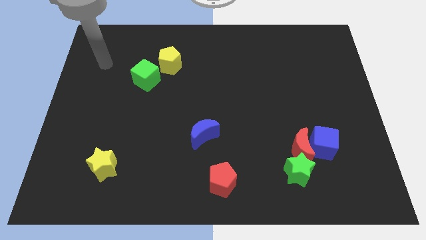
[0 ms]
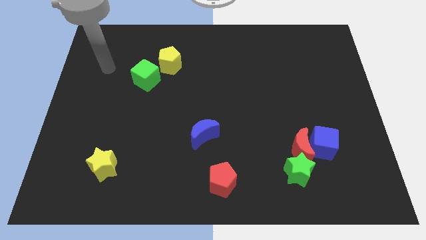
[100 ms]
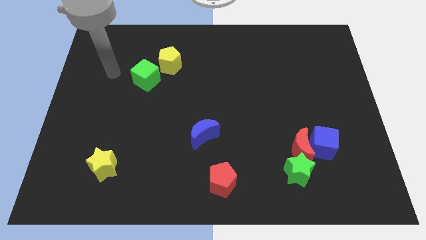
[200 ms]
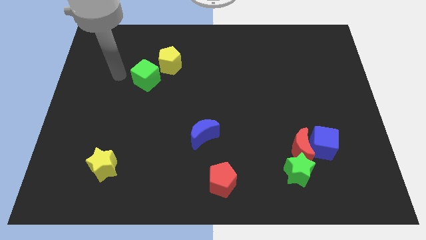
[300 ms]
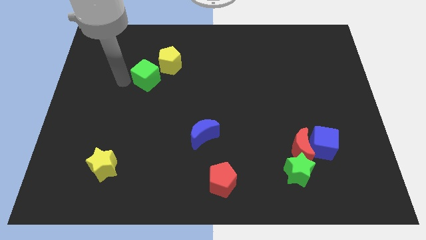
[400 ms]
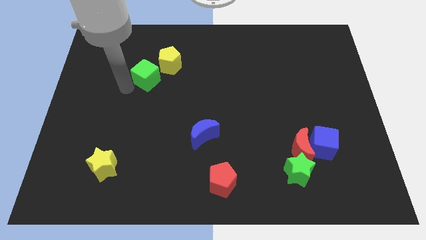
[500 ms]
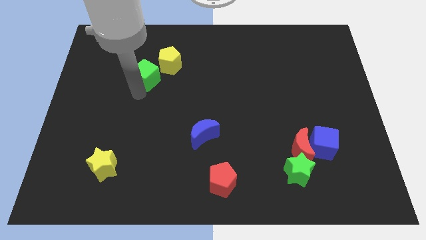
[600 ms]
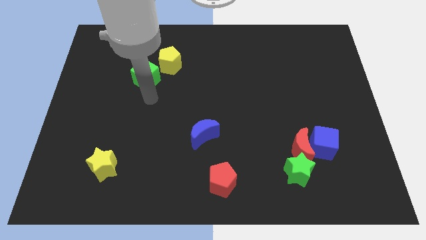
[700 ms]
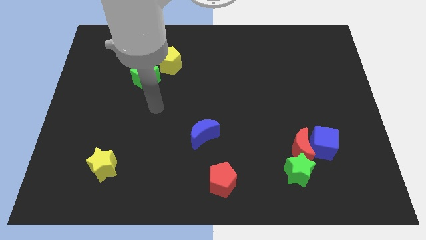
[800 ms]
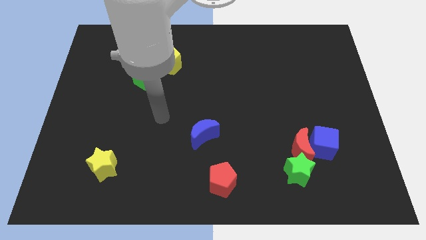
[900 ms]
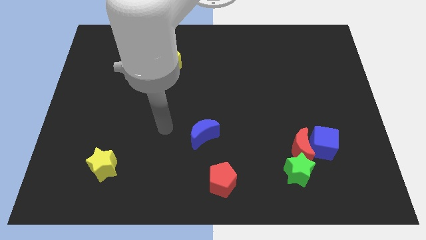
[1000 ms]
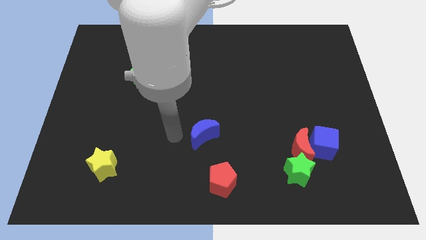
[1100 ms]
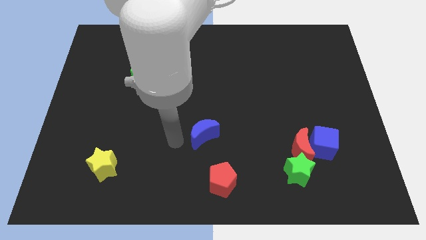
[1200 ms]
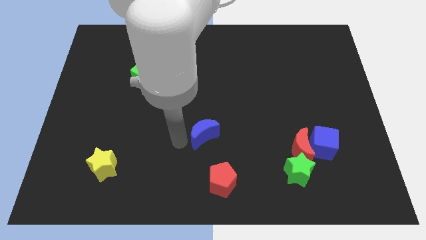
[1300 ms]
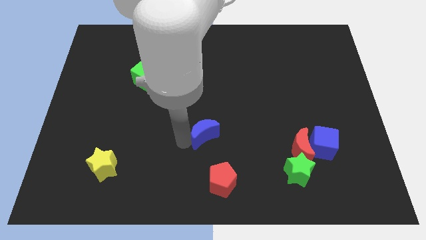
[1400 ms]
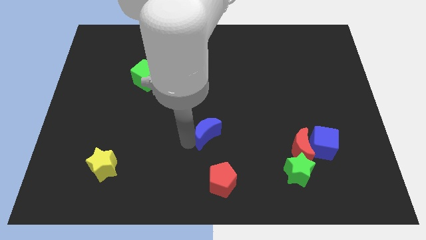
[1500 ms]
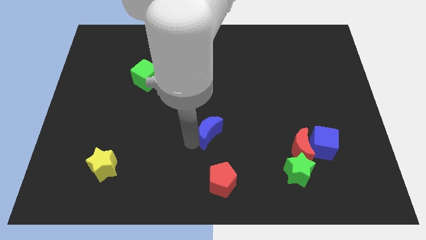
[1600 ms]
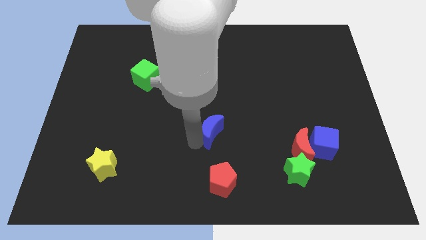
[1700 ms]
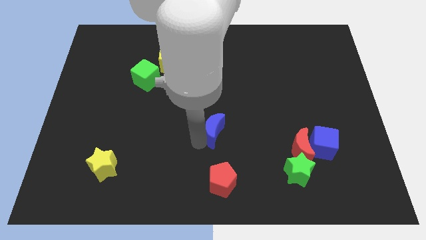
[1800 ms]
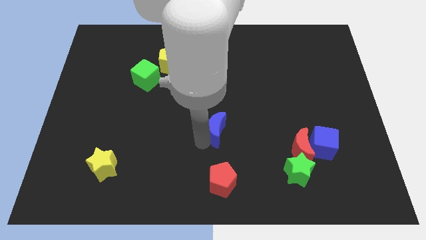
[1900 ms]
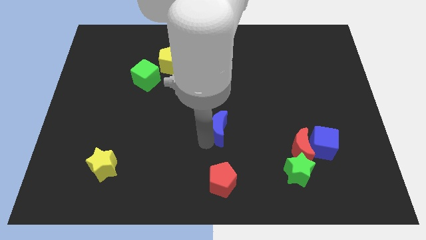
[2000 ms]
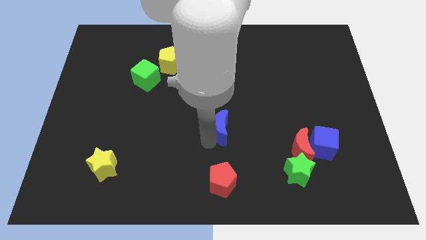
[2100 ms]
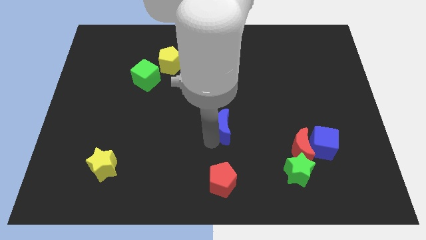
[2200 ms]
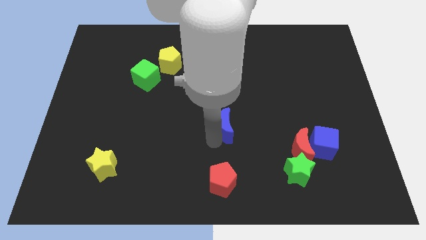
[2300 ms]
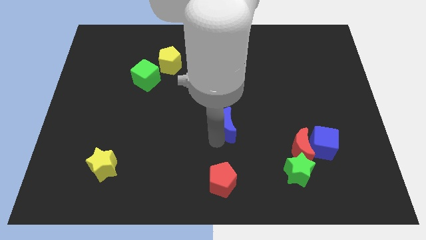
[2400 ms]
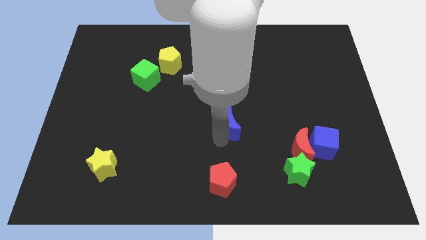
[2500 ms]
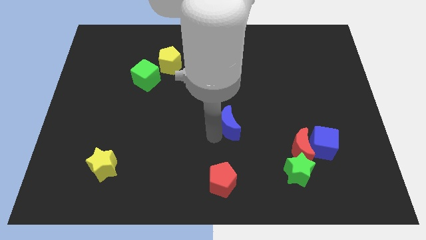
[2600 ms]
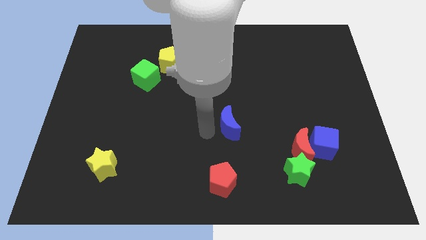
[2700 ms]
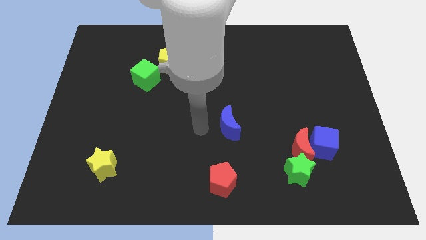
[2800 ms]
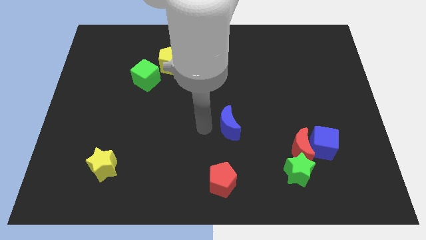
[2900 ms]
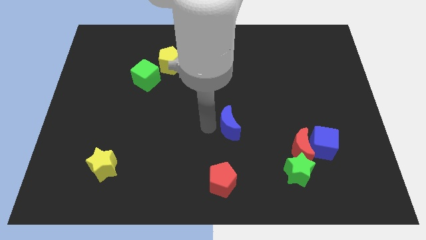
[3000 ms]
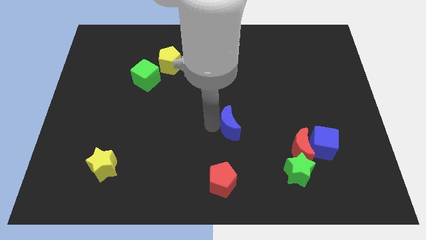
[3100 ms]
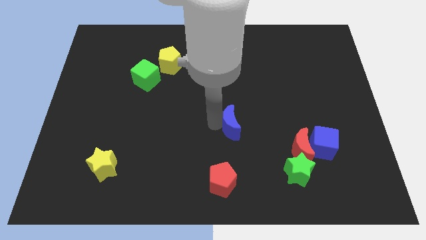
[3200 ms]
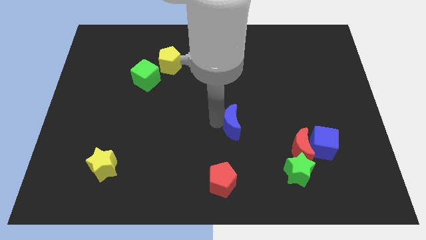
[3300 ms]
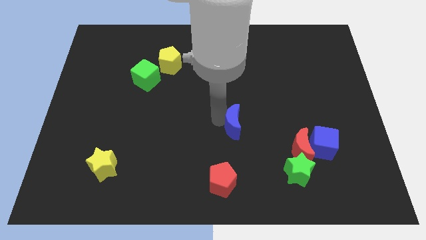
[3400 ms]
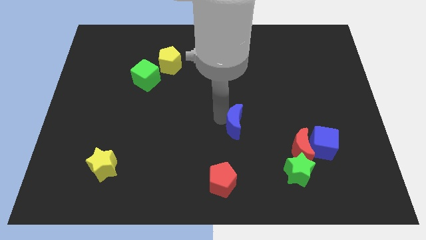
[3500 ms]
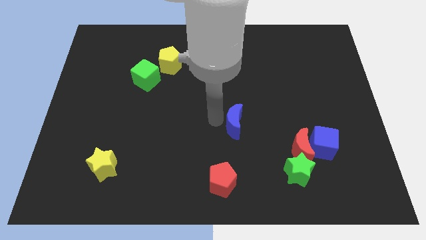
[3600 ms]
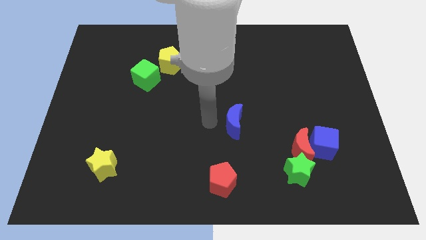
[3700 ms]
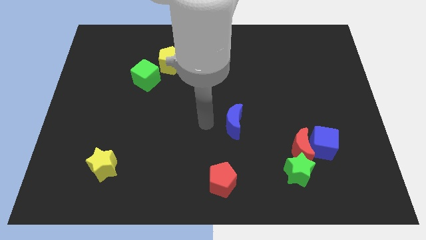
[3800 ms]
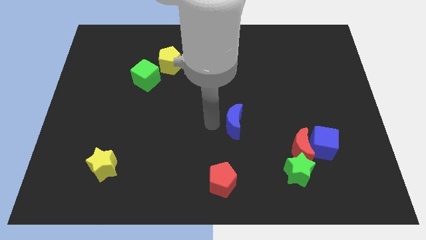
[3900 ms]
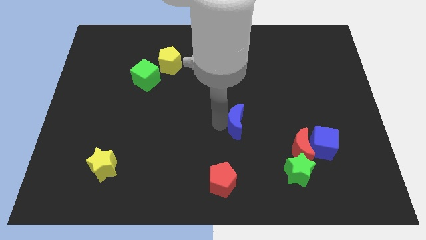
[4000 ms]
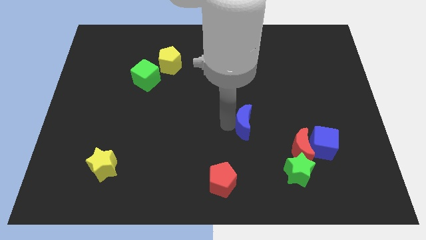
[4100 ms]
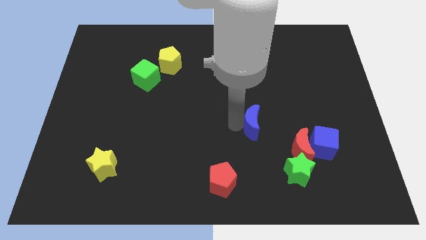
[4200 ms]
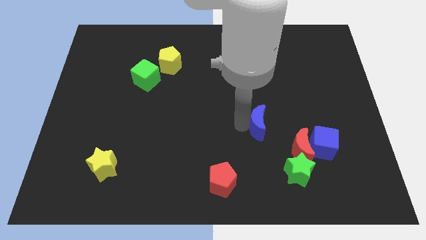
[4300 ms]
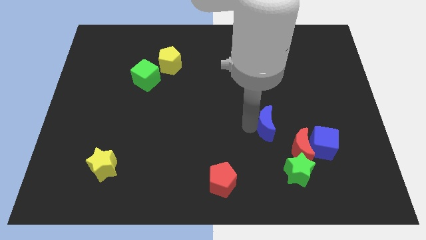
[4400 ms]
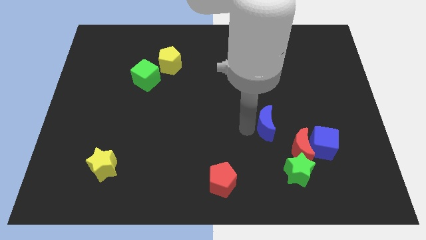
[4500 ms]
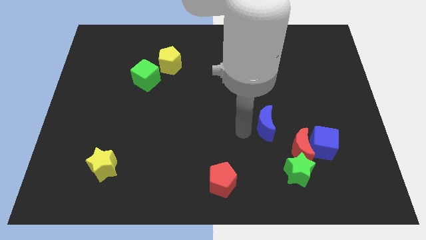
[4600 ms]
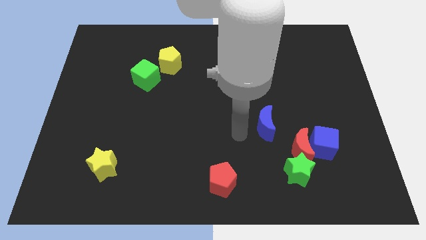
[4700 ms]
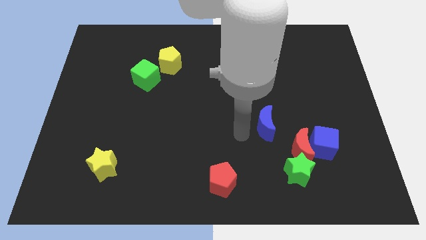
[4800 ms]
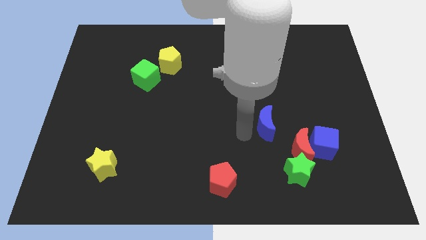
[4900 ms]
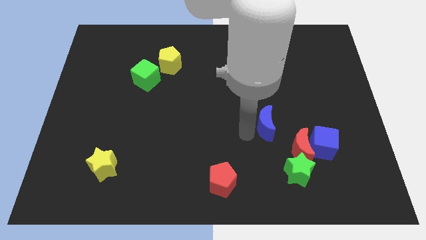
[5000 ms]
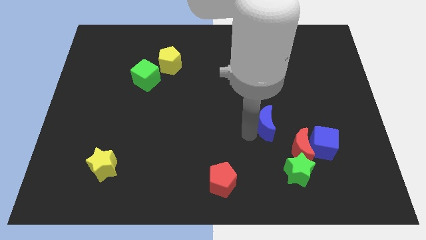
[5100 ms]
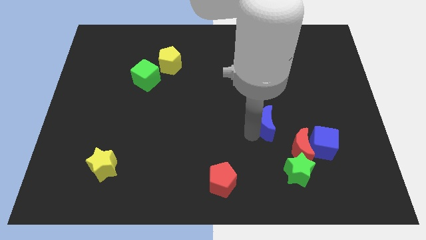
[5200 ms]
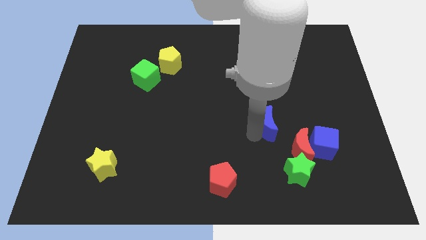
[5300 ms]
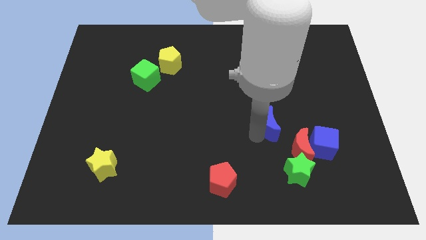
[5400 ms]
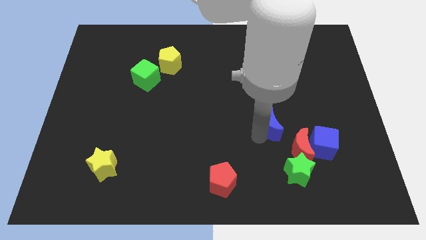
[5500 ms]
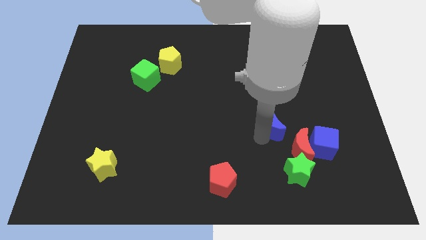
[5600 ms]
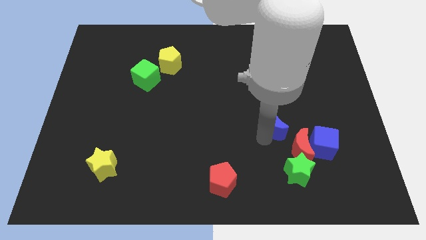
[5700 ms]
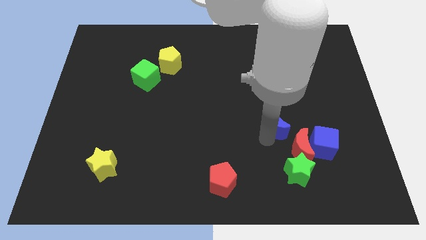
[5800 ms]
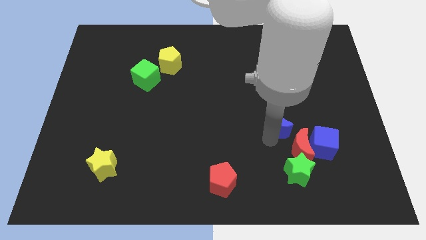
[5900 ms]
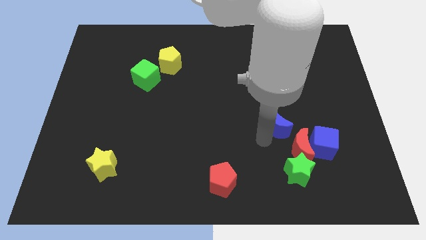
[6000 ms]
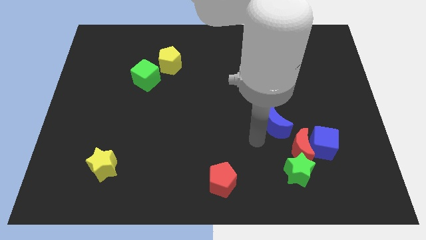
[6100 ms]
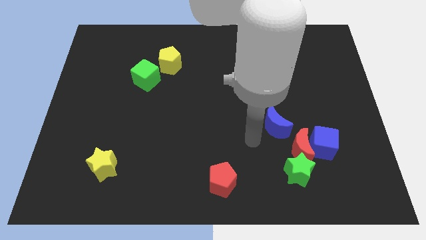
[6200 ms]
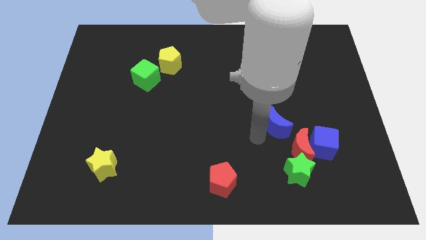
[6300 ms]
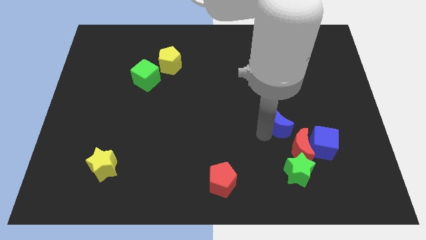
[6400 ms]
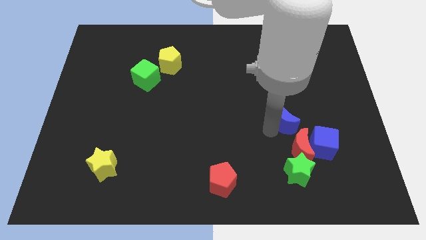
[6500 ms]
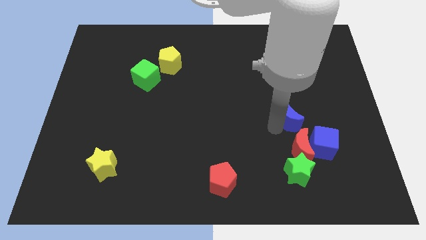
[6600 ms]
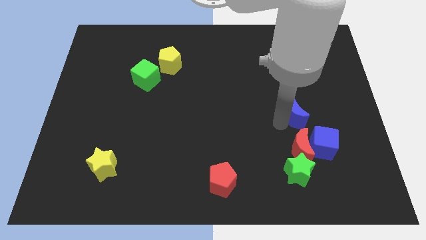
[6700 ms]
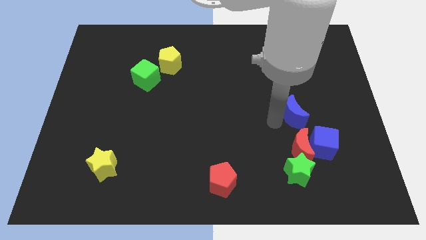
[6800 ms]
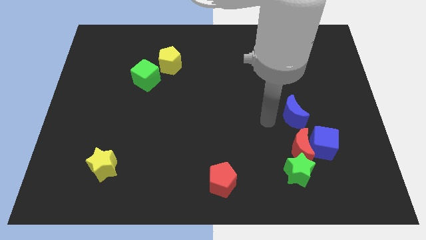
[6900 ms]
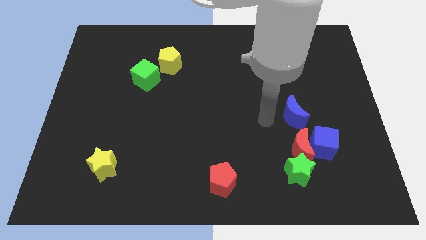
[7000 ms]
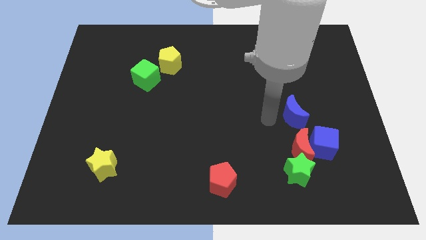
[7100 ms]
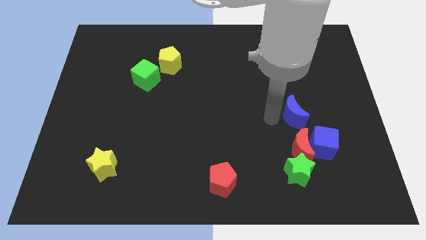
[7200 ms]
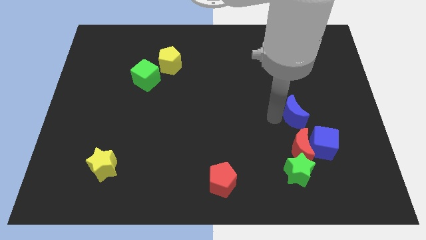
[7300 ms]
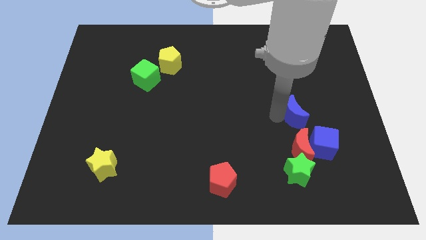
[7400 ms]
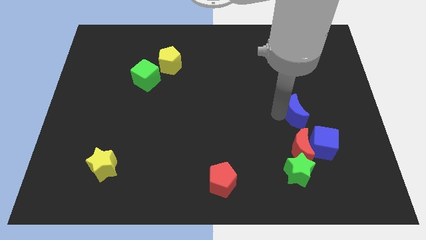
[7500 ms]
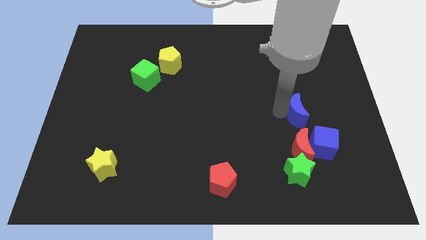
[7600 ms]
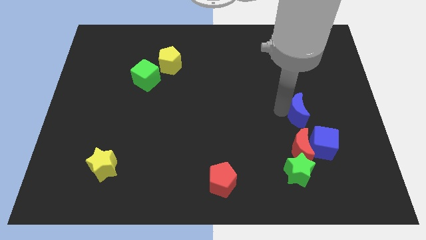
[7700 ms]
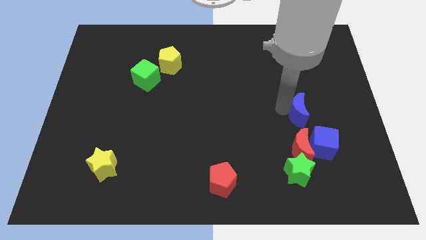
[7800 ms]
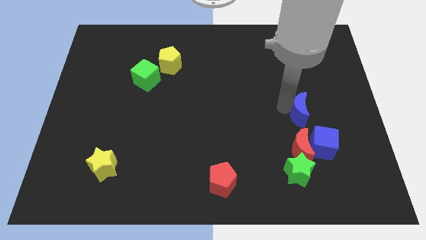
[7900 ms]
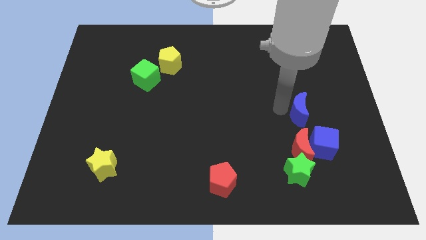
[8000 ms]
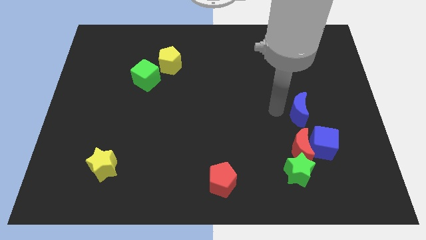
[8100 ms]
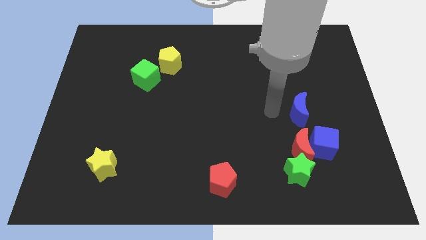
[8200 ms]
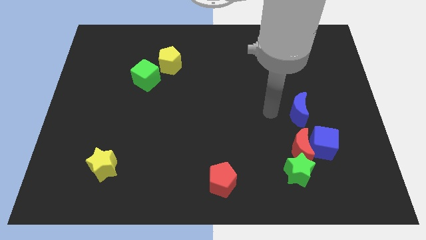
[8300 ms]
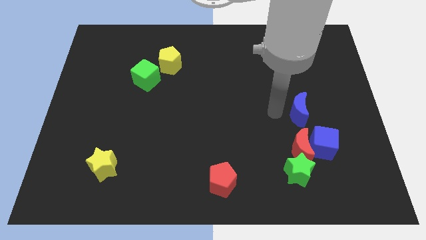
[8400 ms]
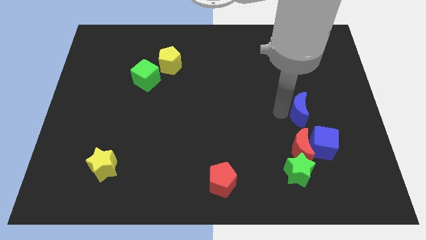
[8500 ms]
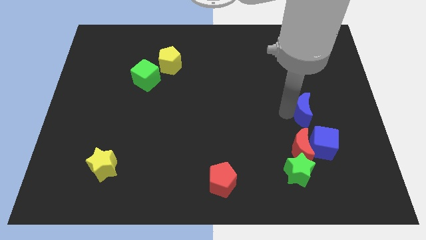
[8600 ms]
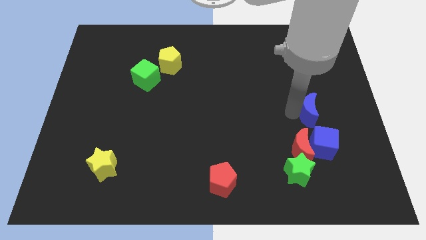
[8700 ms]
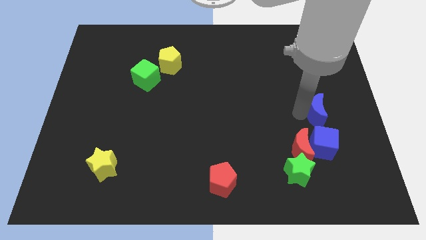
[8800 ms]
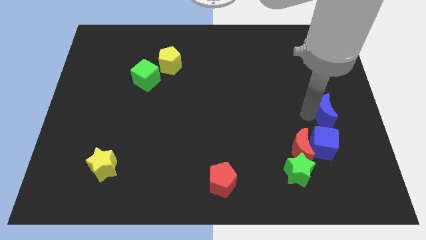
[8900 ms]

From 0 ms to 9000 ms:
put the blue moon to the right side
